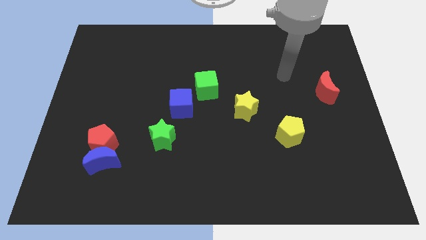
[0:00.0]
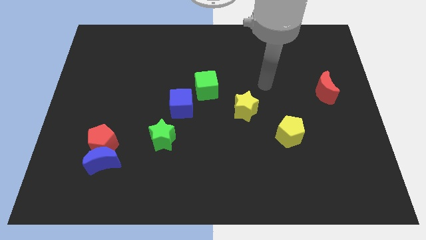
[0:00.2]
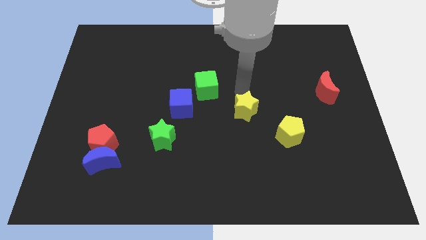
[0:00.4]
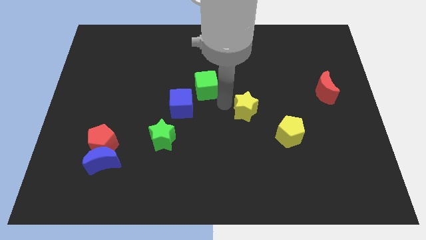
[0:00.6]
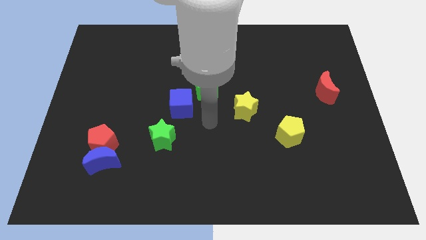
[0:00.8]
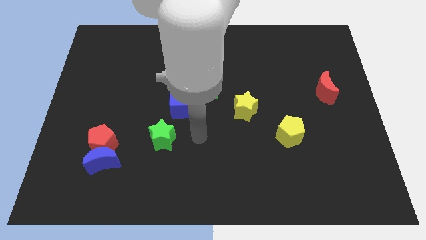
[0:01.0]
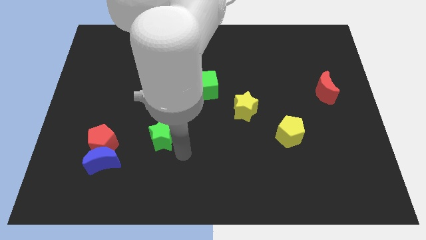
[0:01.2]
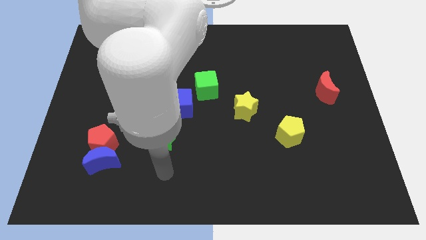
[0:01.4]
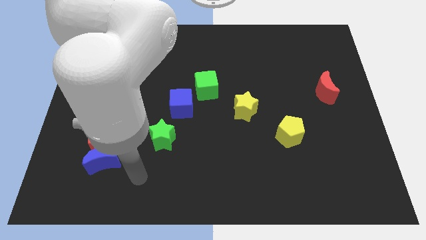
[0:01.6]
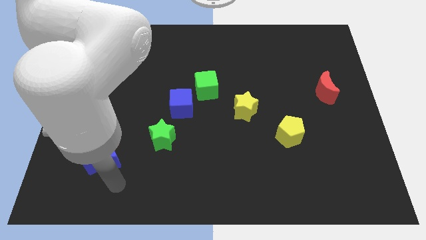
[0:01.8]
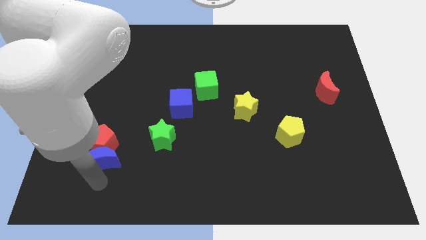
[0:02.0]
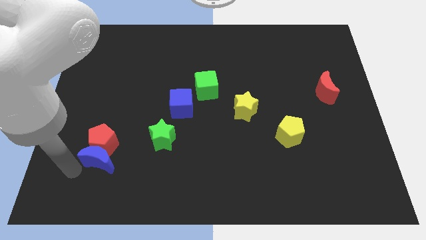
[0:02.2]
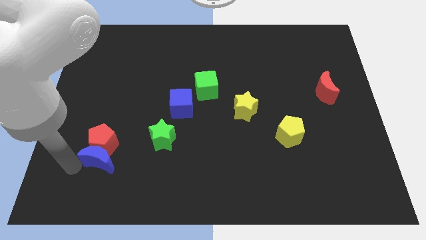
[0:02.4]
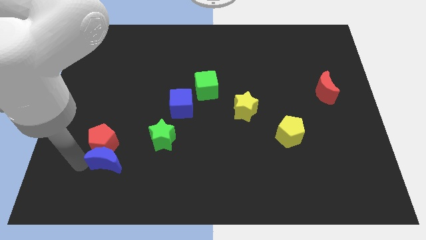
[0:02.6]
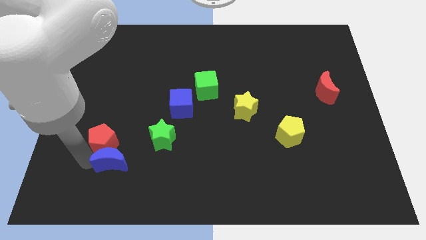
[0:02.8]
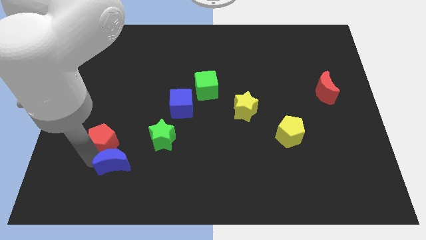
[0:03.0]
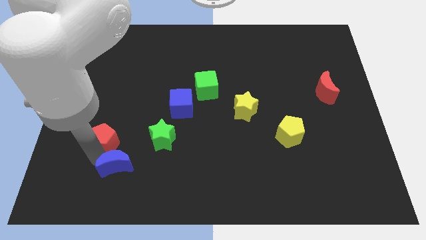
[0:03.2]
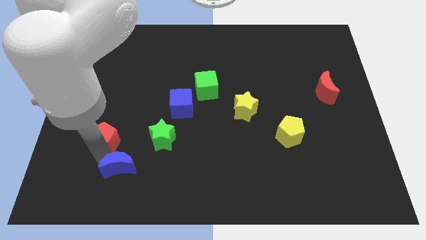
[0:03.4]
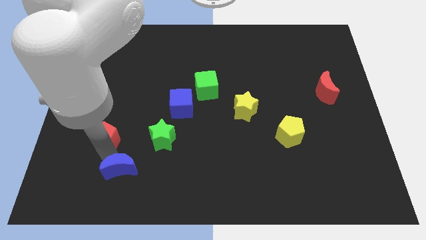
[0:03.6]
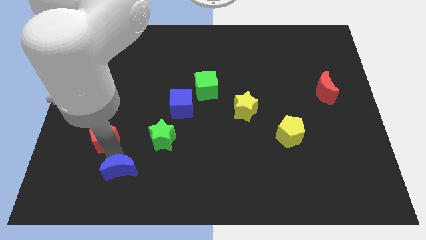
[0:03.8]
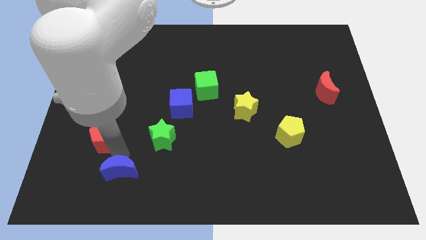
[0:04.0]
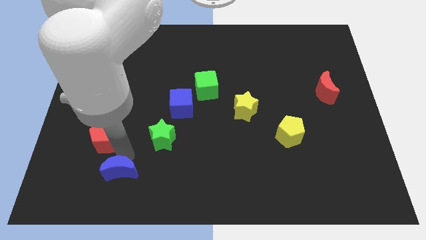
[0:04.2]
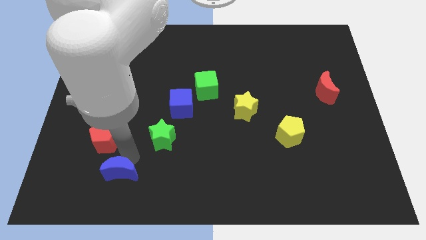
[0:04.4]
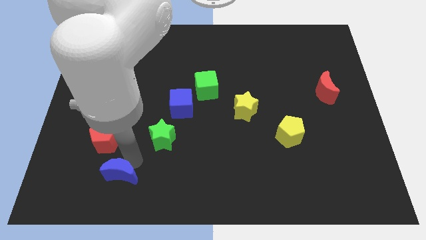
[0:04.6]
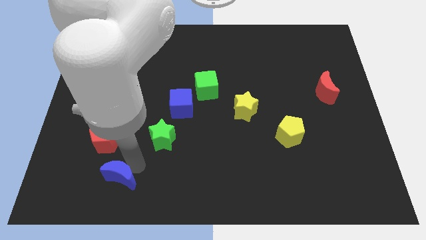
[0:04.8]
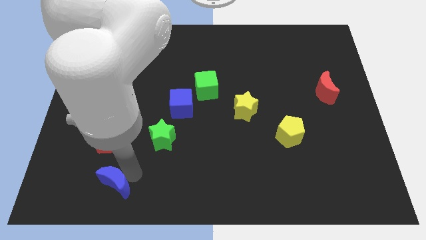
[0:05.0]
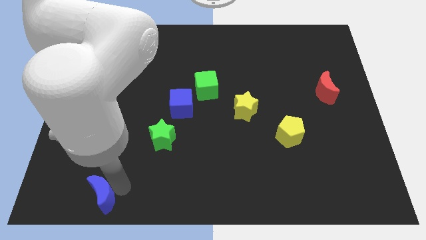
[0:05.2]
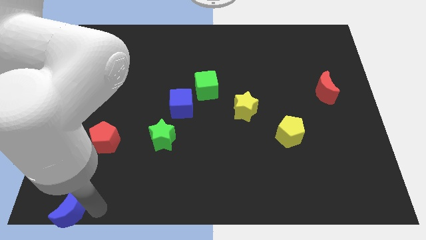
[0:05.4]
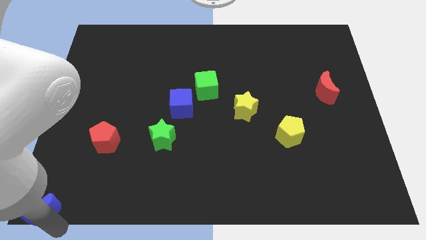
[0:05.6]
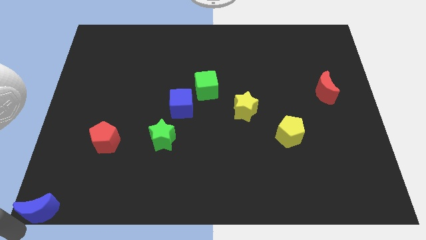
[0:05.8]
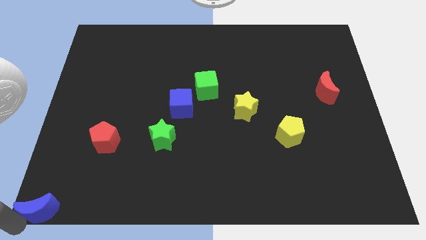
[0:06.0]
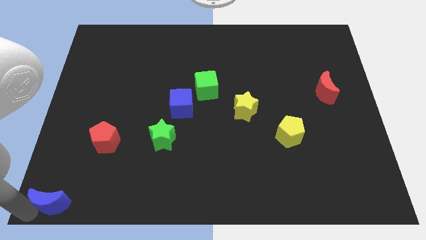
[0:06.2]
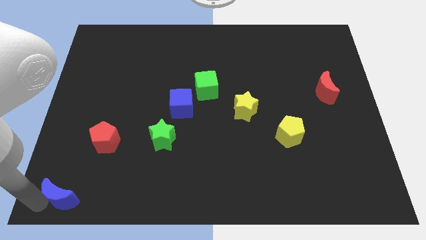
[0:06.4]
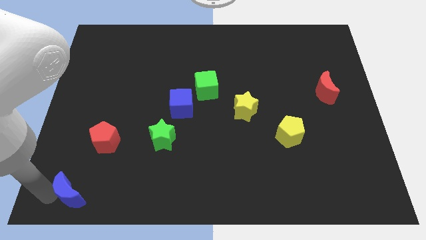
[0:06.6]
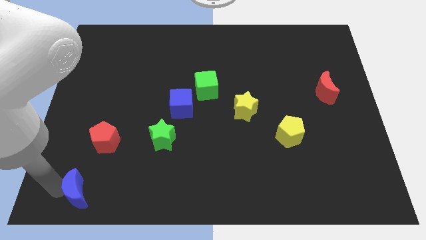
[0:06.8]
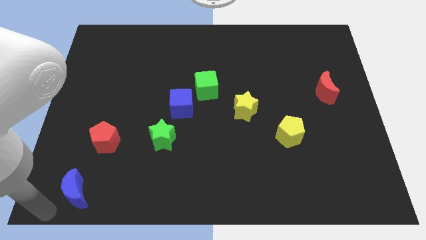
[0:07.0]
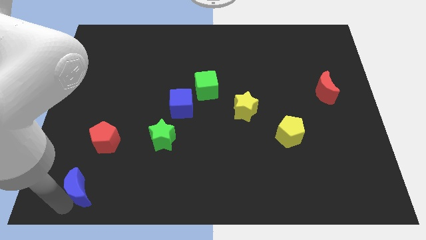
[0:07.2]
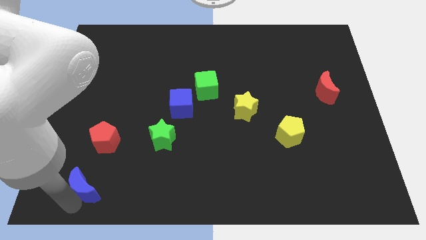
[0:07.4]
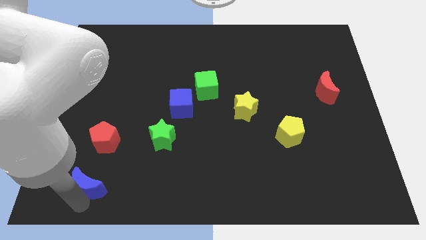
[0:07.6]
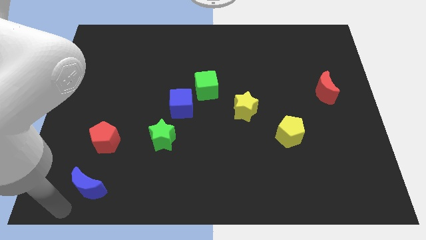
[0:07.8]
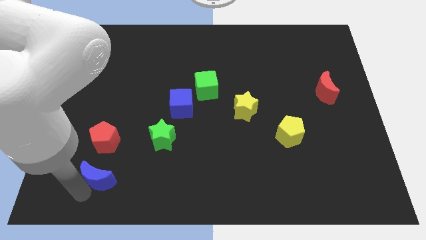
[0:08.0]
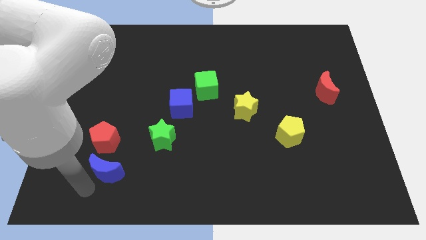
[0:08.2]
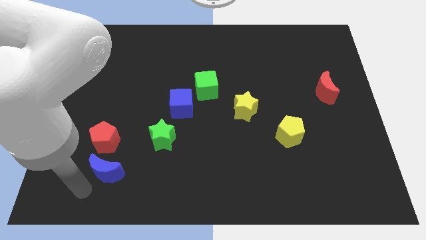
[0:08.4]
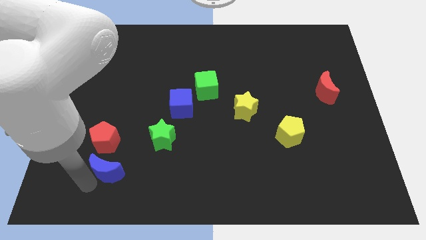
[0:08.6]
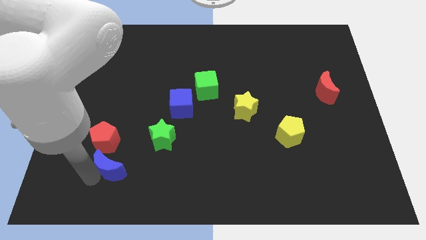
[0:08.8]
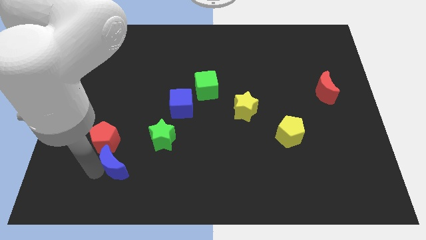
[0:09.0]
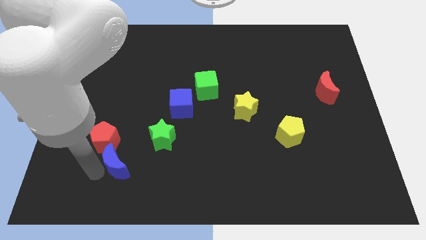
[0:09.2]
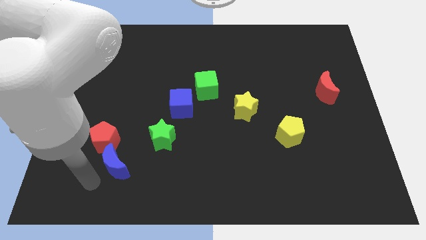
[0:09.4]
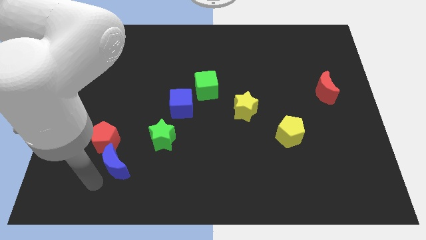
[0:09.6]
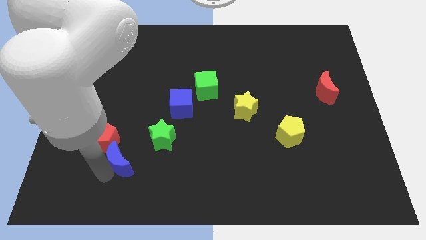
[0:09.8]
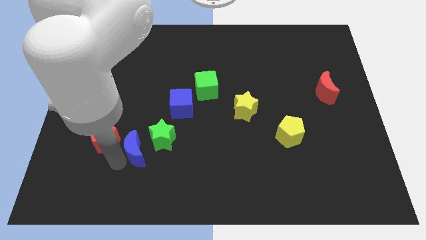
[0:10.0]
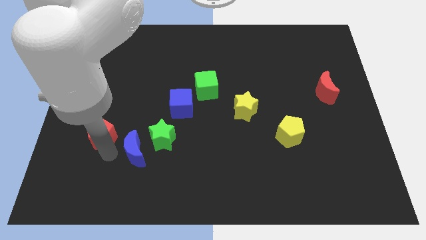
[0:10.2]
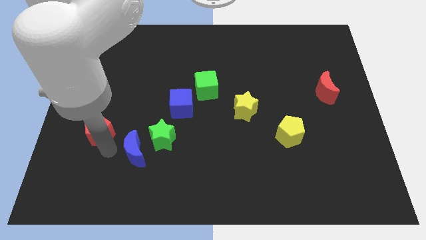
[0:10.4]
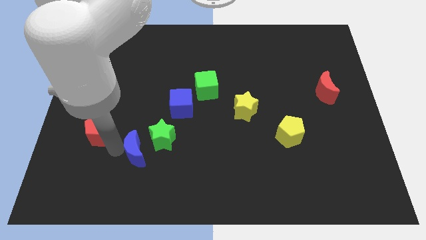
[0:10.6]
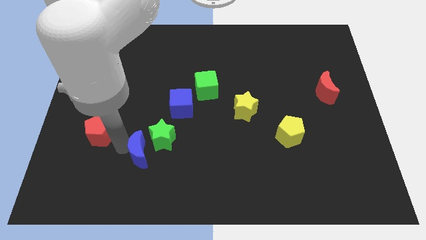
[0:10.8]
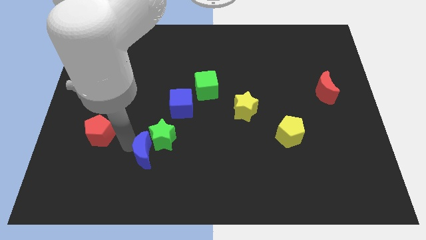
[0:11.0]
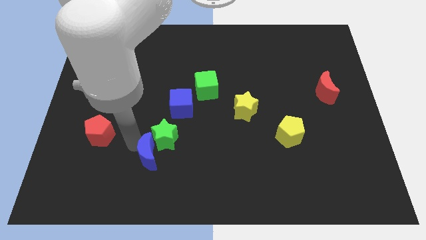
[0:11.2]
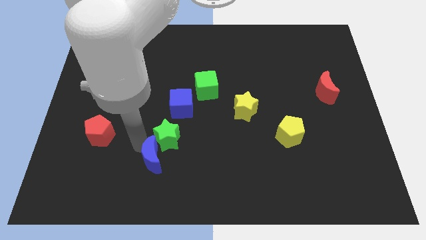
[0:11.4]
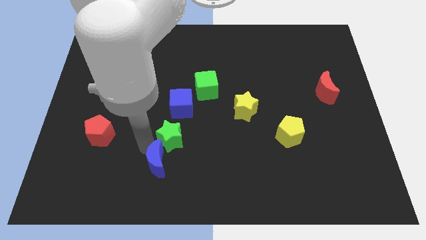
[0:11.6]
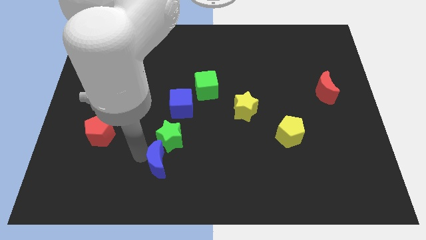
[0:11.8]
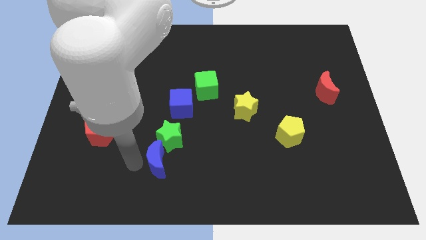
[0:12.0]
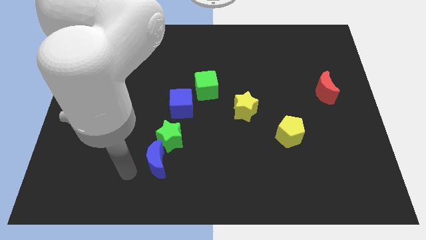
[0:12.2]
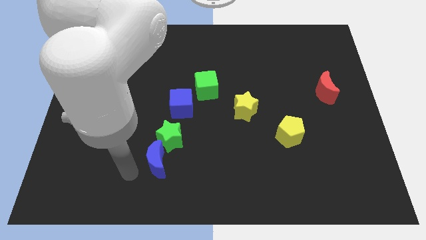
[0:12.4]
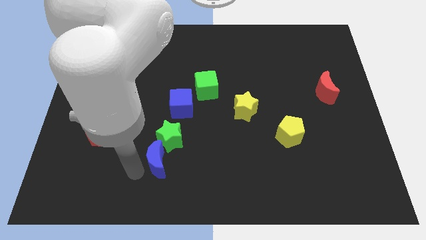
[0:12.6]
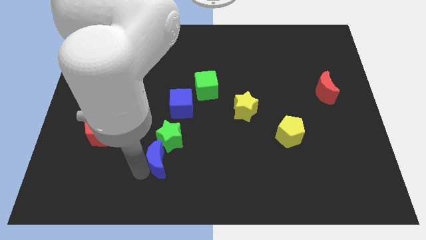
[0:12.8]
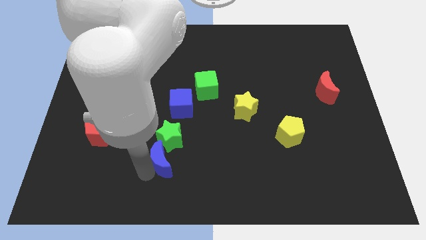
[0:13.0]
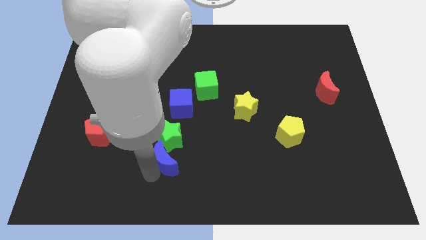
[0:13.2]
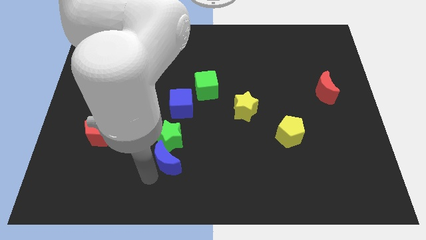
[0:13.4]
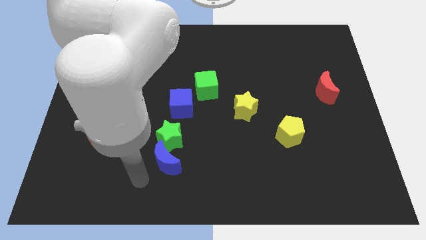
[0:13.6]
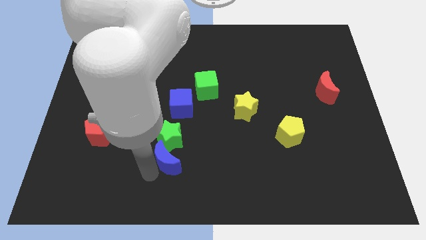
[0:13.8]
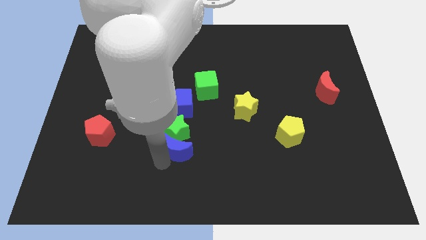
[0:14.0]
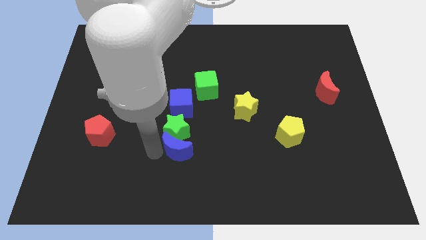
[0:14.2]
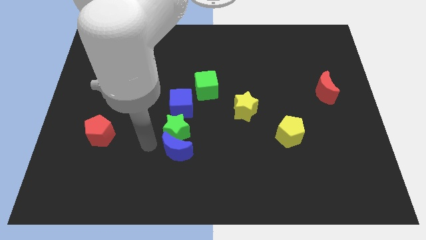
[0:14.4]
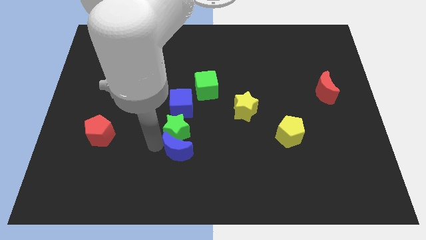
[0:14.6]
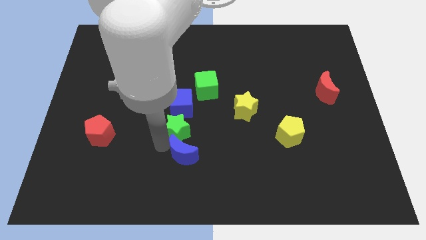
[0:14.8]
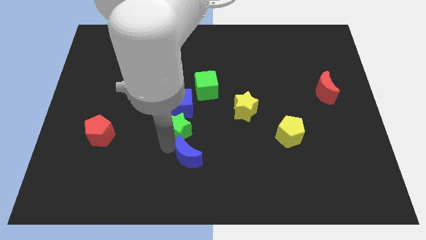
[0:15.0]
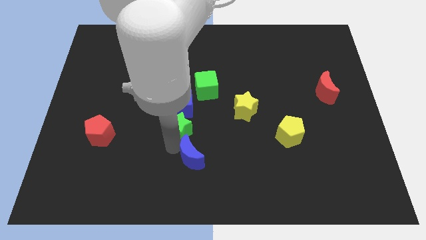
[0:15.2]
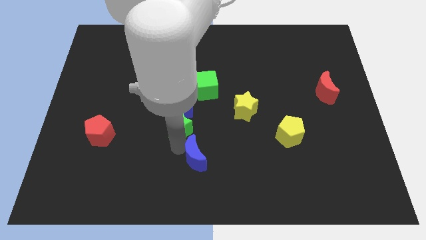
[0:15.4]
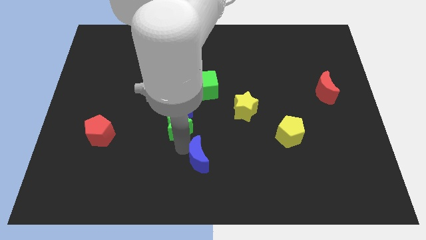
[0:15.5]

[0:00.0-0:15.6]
move the blue moon to the right

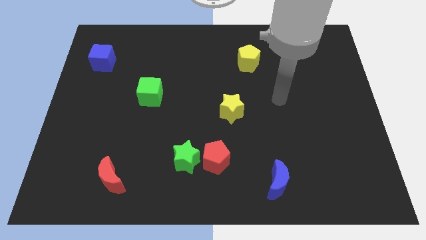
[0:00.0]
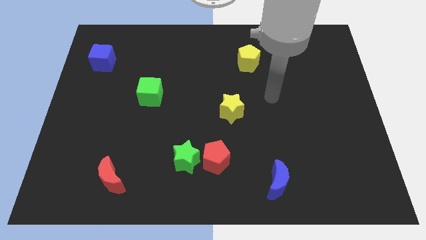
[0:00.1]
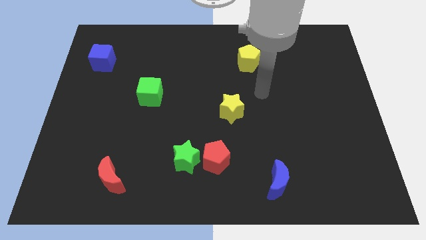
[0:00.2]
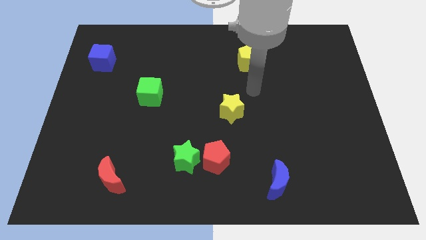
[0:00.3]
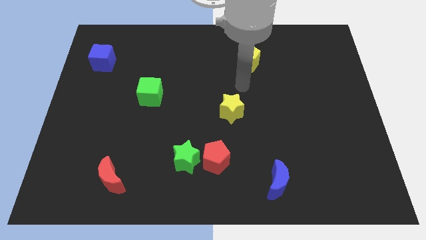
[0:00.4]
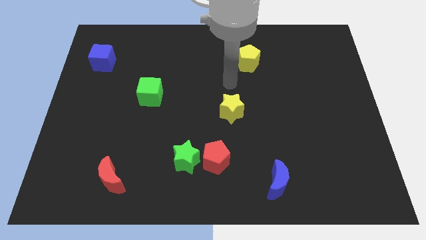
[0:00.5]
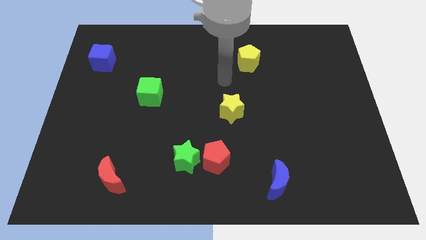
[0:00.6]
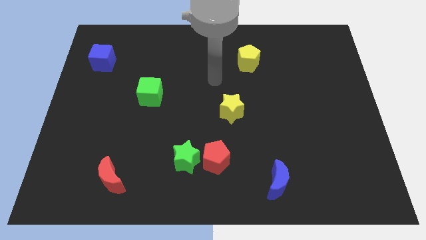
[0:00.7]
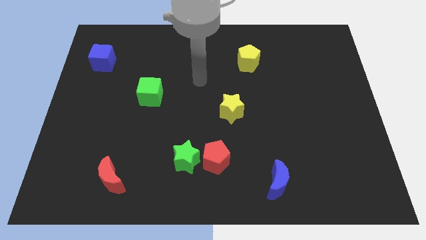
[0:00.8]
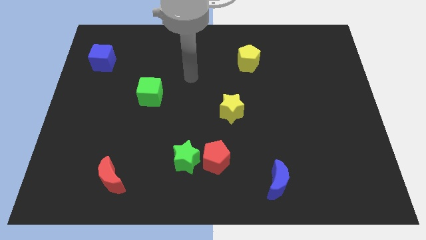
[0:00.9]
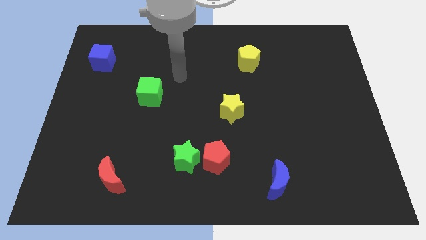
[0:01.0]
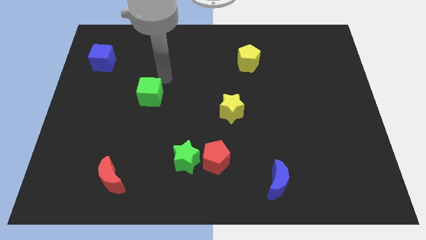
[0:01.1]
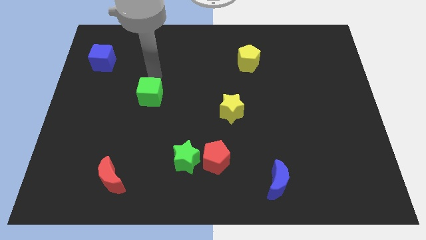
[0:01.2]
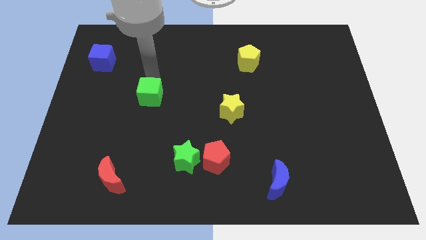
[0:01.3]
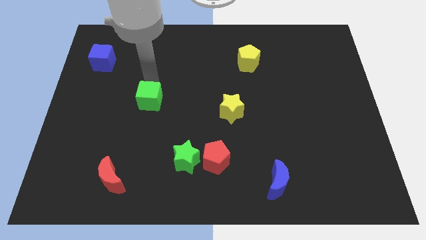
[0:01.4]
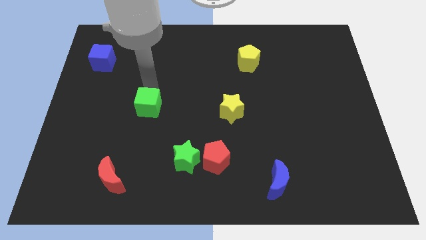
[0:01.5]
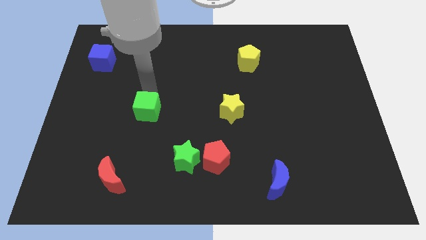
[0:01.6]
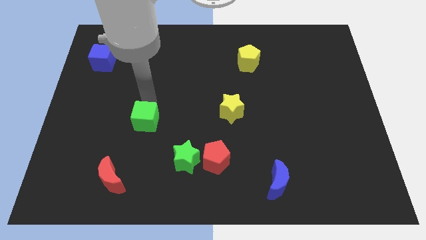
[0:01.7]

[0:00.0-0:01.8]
push the green cube down a little bit
